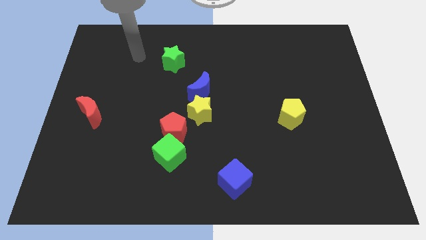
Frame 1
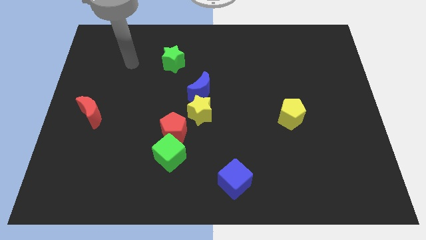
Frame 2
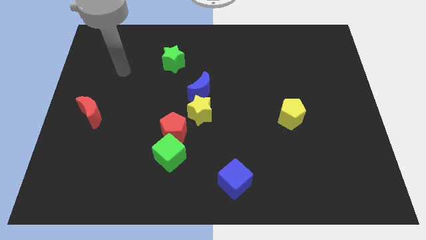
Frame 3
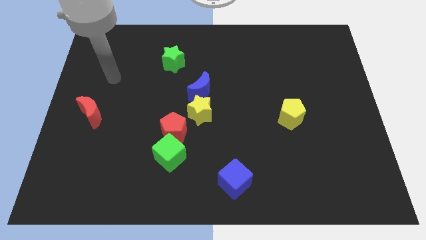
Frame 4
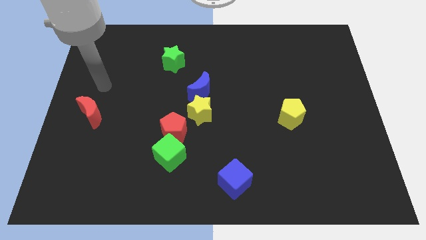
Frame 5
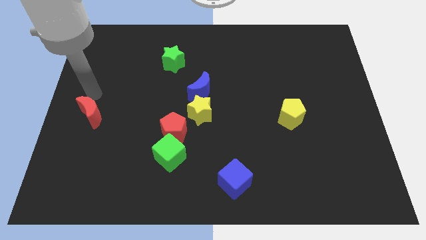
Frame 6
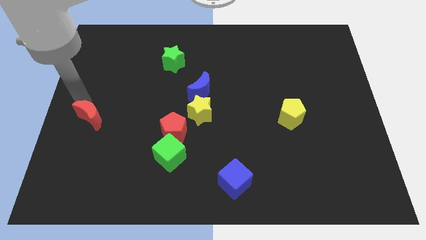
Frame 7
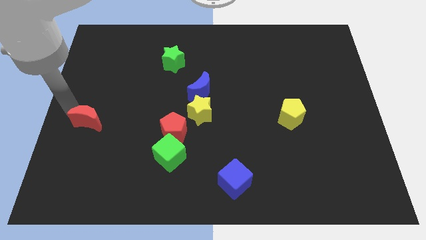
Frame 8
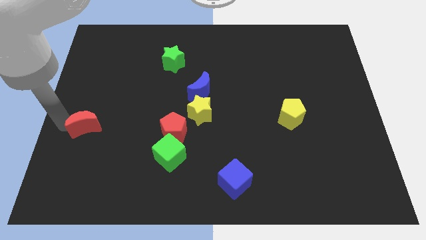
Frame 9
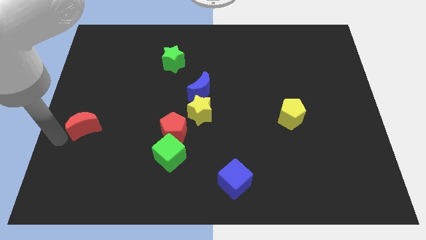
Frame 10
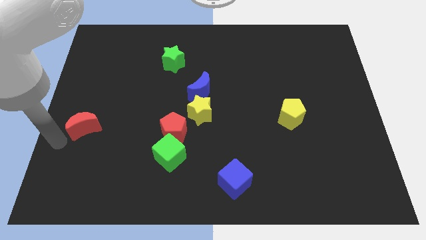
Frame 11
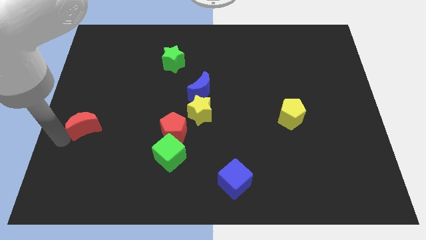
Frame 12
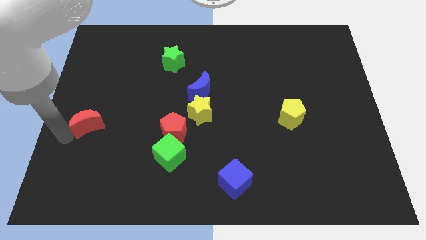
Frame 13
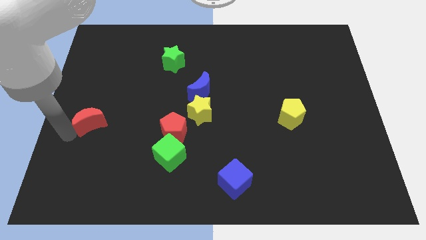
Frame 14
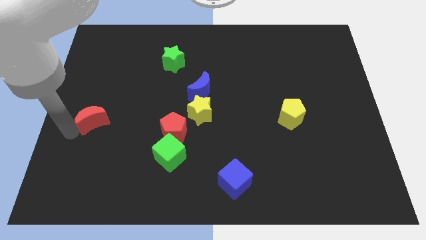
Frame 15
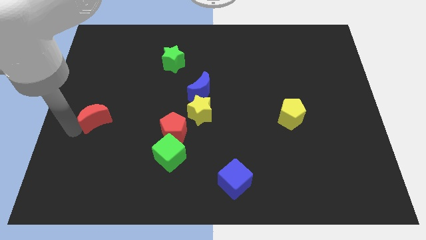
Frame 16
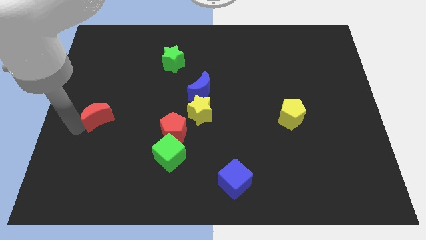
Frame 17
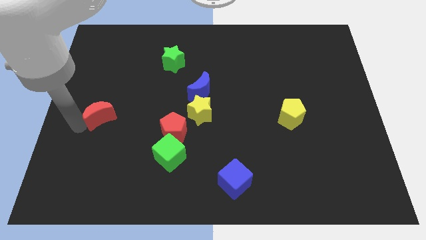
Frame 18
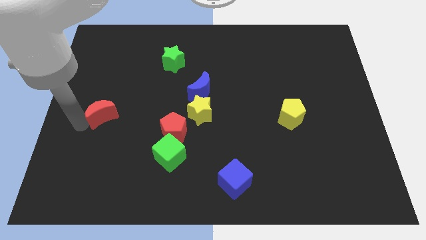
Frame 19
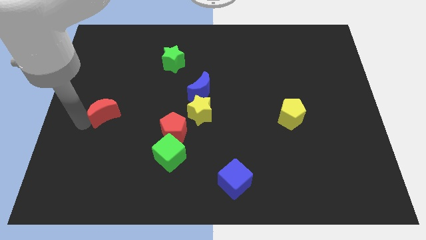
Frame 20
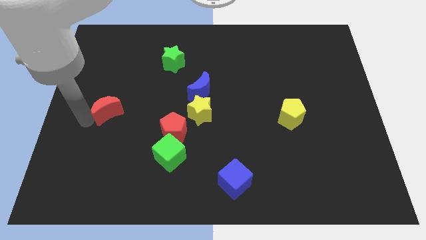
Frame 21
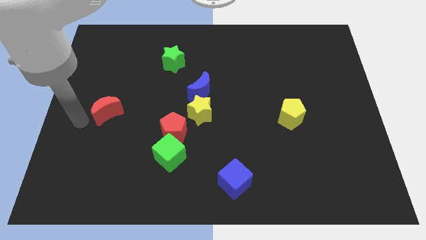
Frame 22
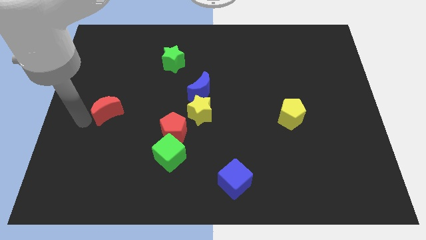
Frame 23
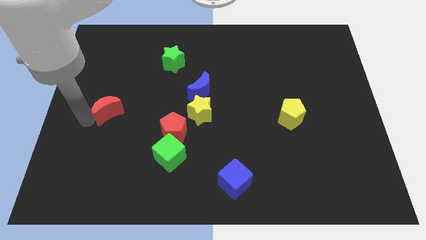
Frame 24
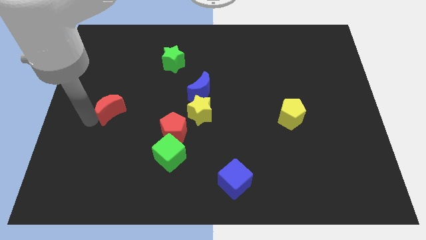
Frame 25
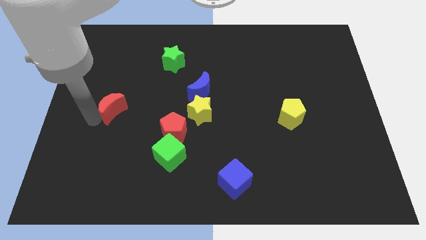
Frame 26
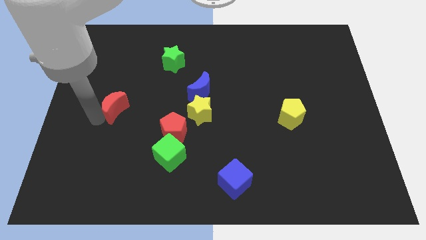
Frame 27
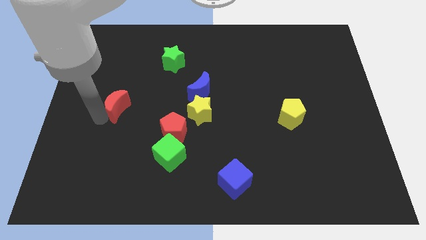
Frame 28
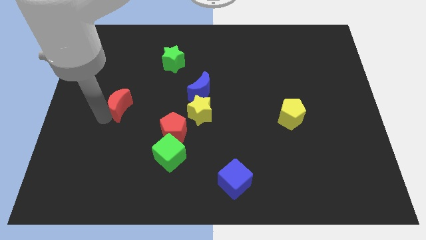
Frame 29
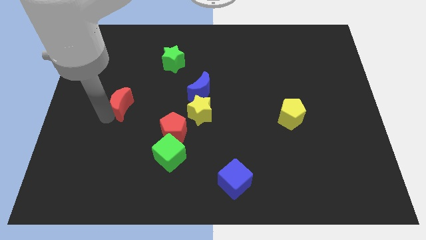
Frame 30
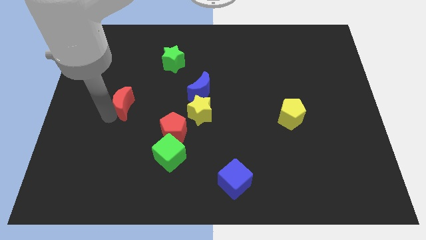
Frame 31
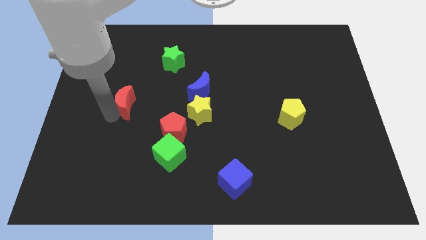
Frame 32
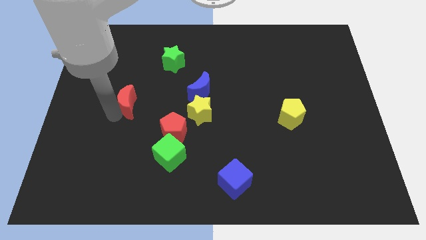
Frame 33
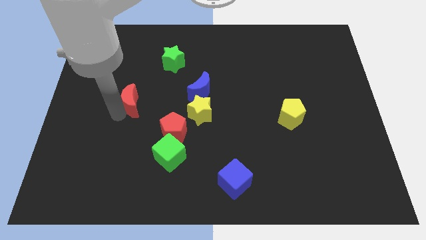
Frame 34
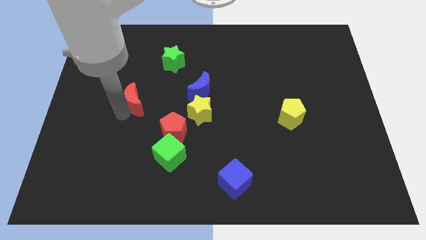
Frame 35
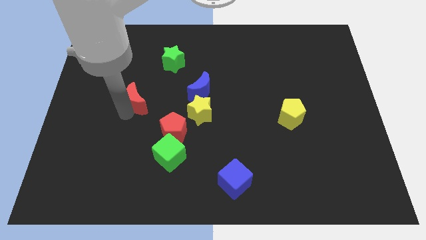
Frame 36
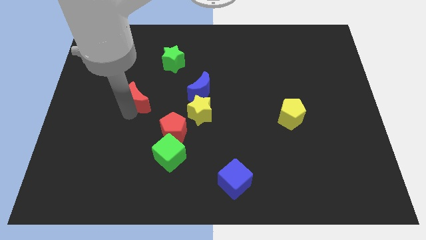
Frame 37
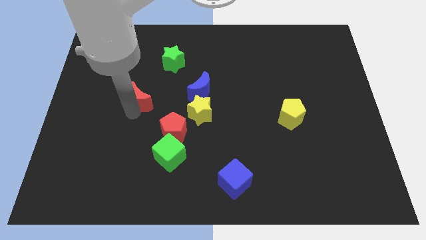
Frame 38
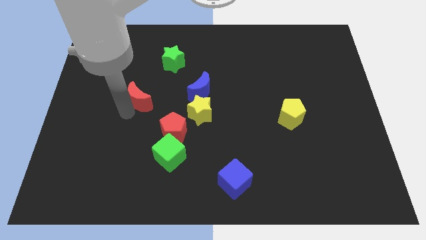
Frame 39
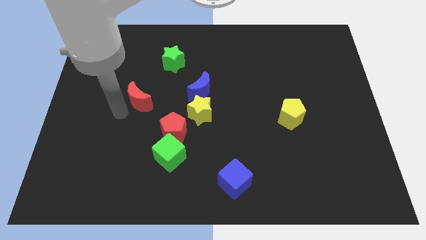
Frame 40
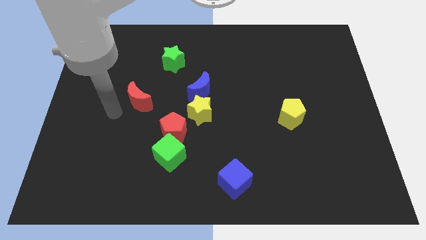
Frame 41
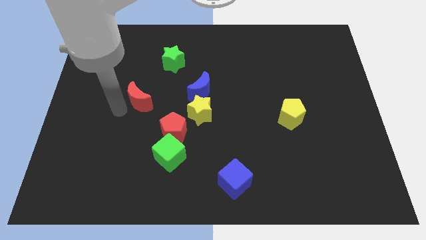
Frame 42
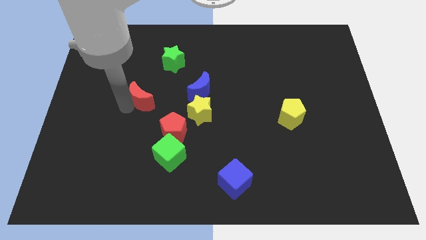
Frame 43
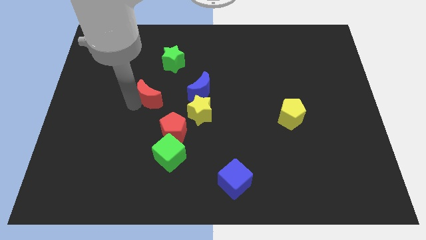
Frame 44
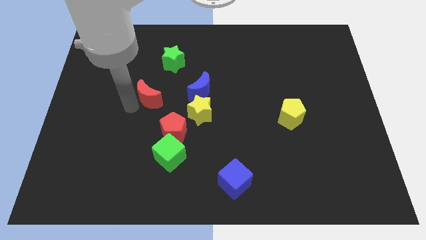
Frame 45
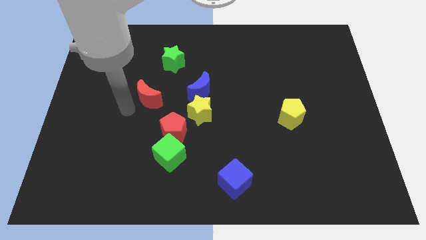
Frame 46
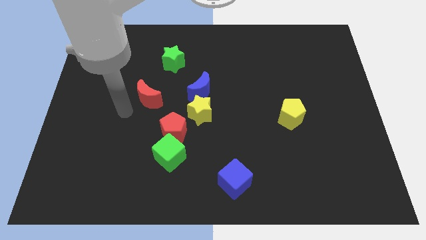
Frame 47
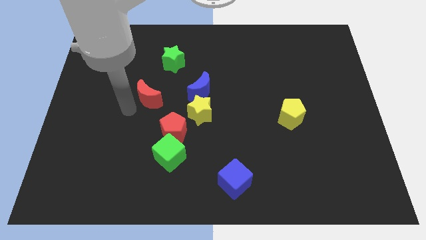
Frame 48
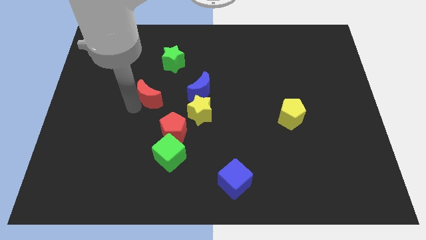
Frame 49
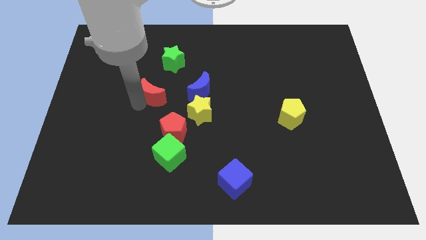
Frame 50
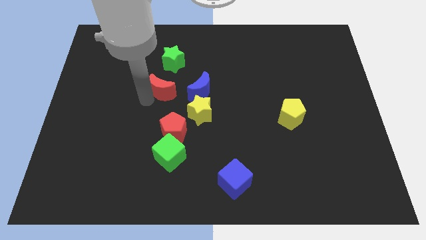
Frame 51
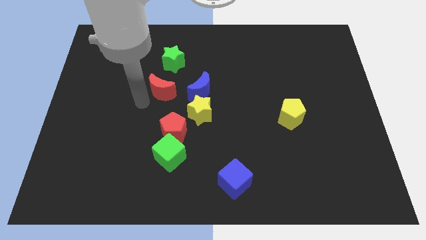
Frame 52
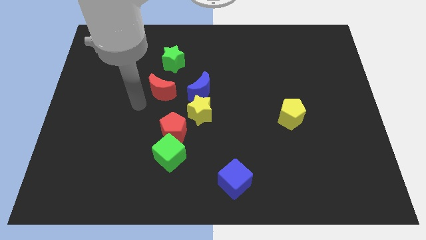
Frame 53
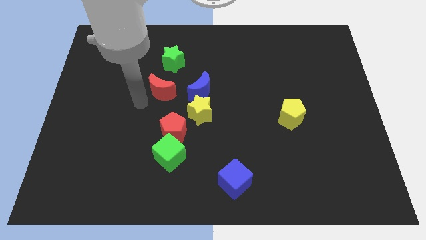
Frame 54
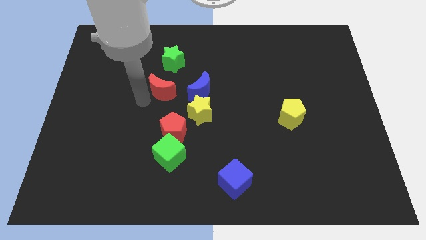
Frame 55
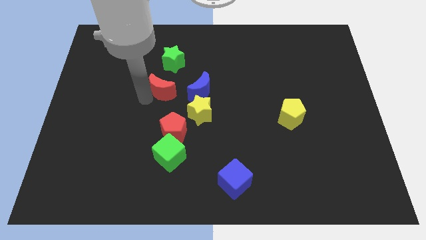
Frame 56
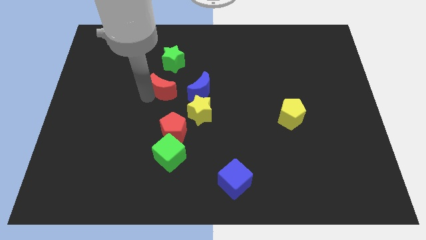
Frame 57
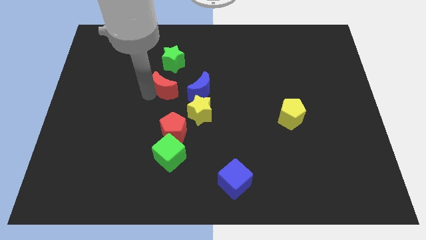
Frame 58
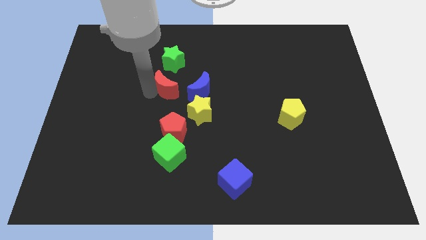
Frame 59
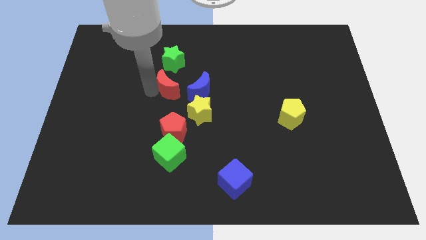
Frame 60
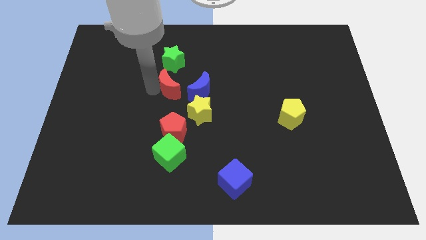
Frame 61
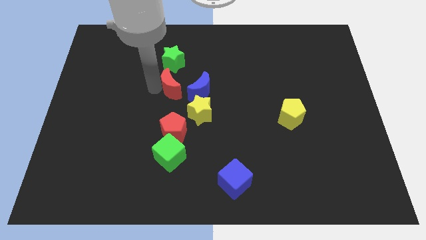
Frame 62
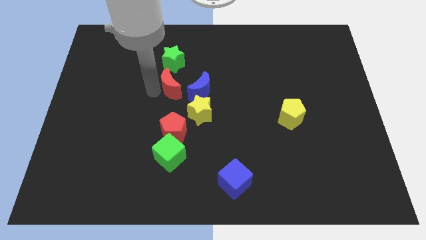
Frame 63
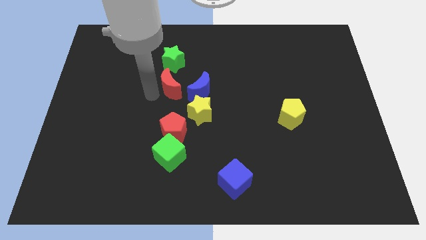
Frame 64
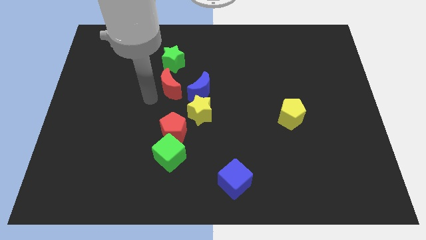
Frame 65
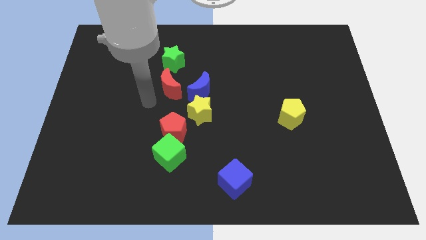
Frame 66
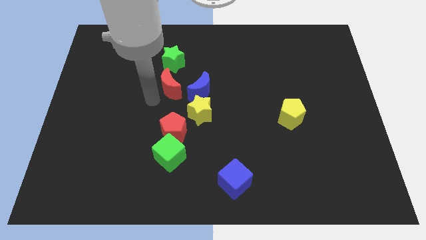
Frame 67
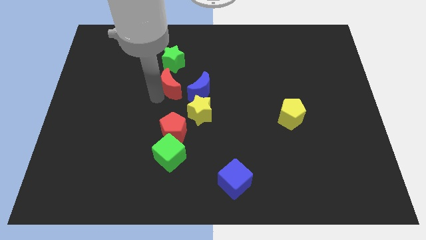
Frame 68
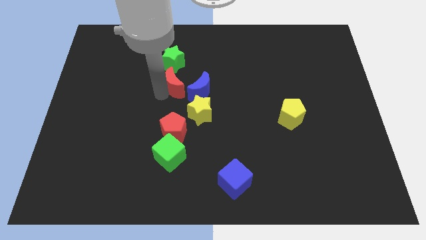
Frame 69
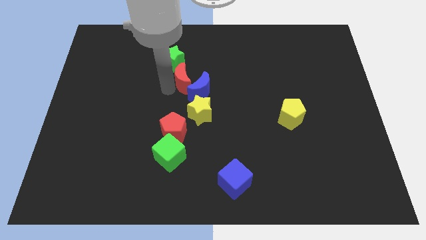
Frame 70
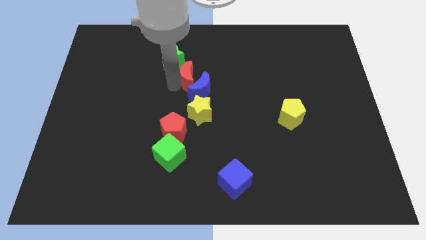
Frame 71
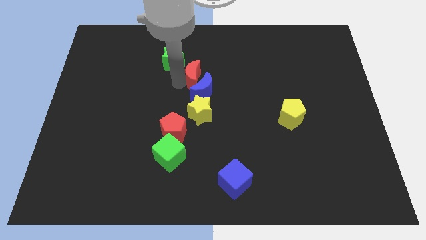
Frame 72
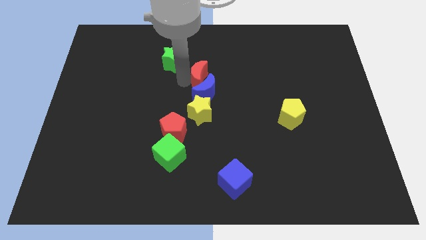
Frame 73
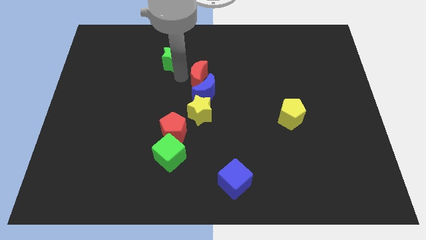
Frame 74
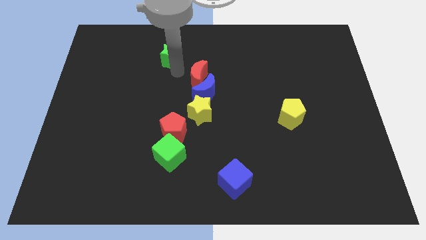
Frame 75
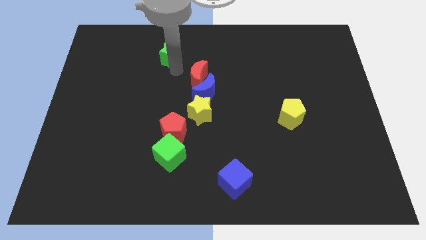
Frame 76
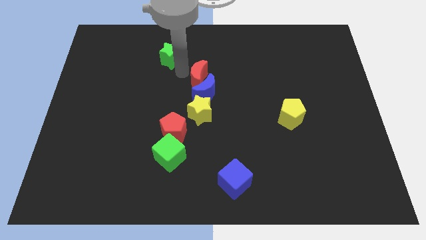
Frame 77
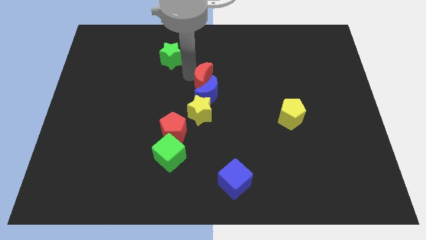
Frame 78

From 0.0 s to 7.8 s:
move the red moon right

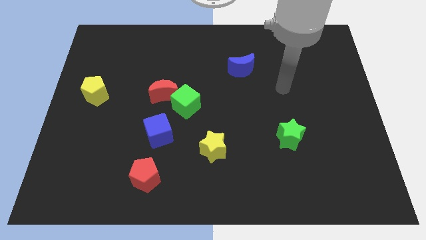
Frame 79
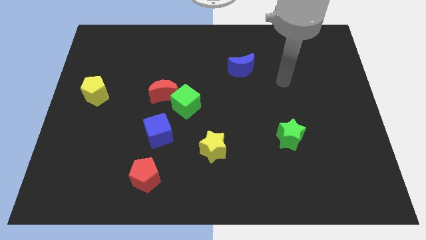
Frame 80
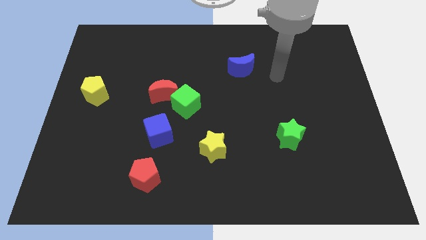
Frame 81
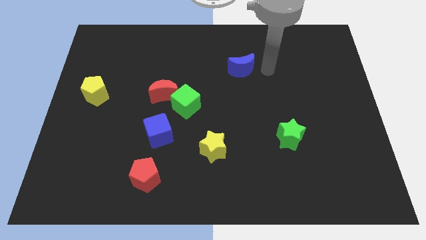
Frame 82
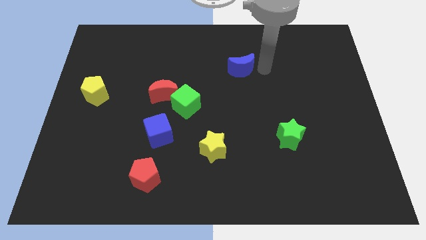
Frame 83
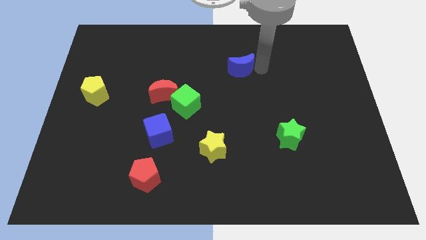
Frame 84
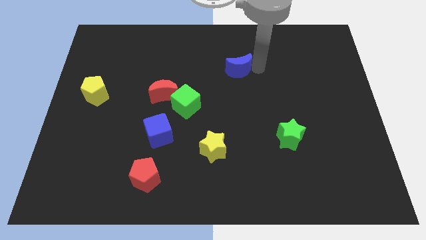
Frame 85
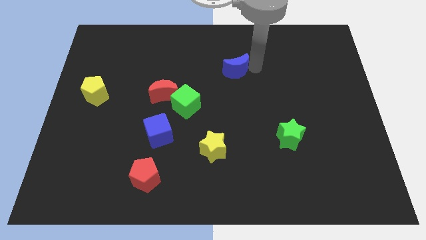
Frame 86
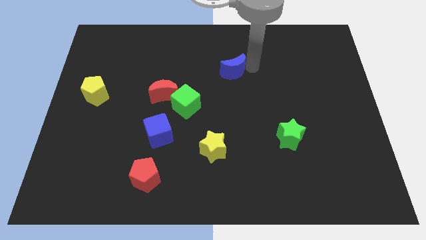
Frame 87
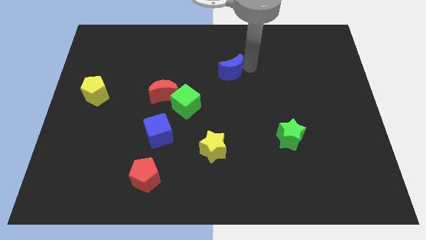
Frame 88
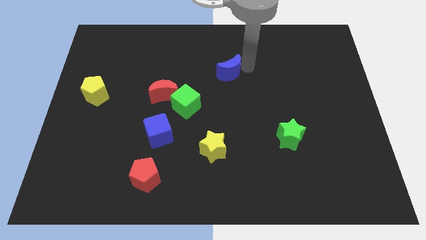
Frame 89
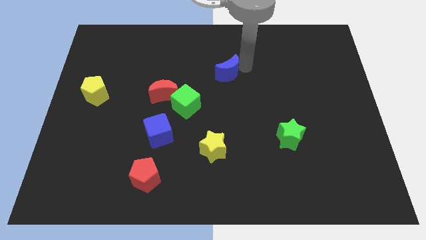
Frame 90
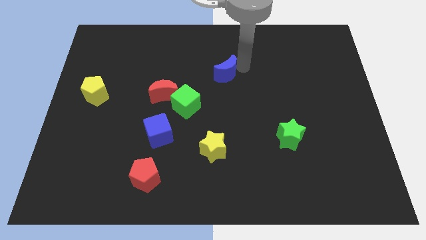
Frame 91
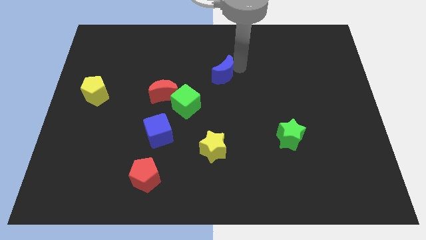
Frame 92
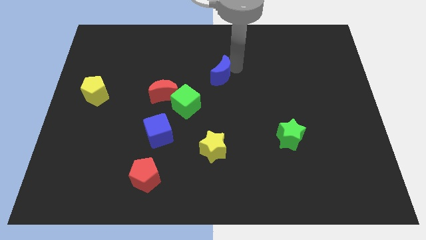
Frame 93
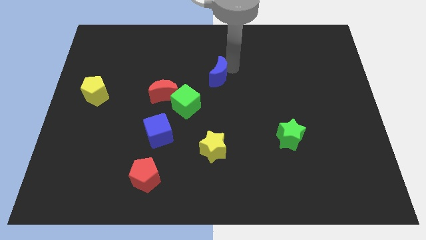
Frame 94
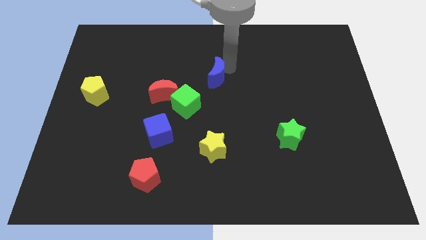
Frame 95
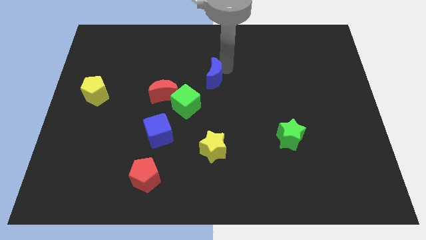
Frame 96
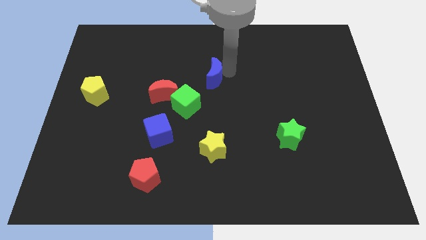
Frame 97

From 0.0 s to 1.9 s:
move the blue moon a little left
